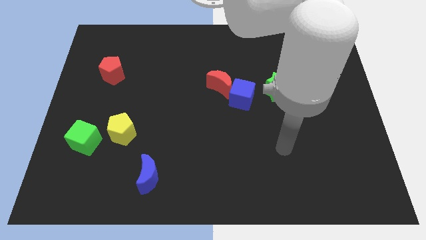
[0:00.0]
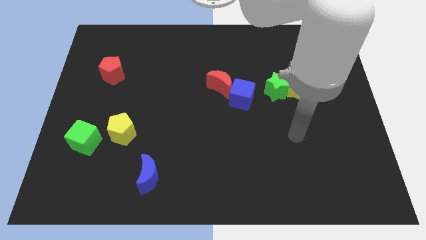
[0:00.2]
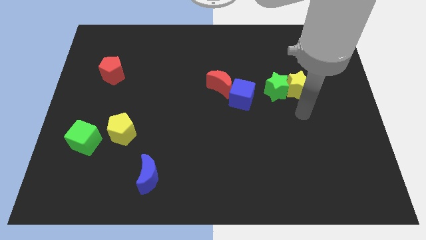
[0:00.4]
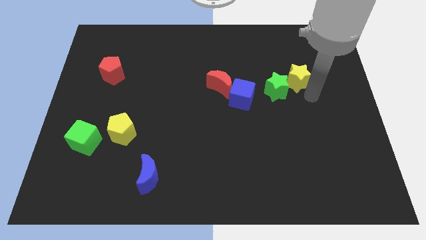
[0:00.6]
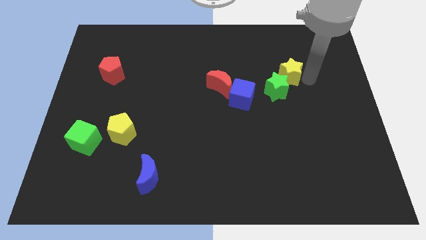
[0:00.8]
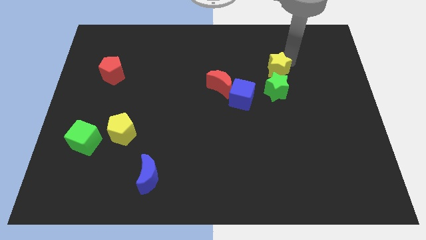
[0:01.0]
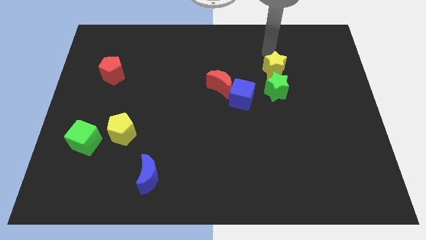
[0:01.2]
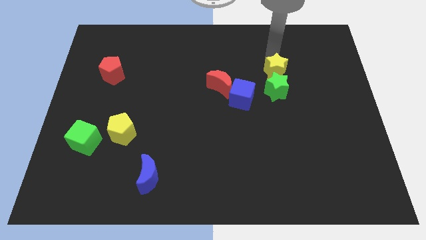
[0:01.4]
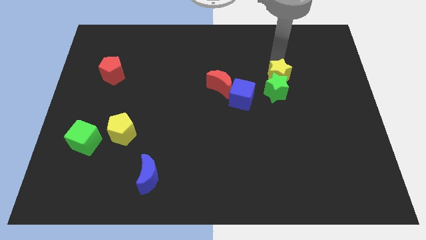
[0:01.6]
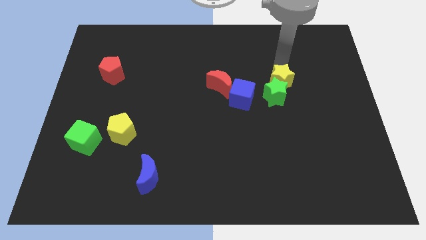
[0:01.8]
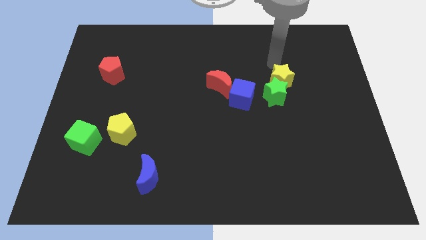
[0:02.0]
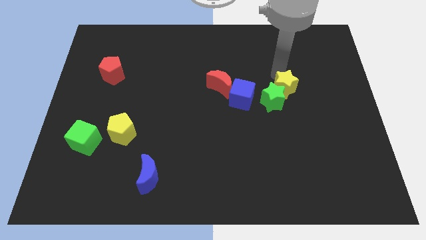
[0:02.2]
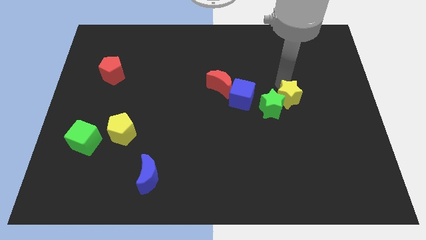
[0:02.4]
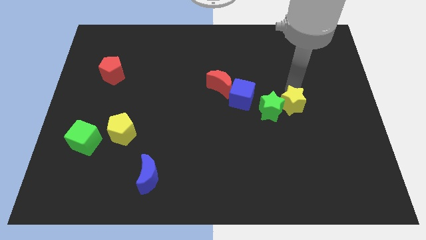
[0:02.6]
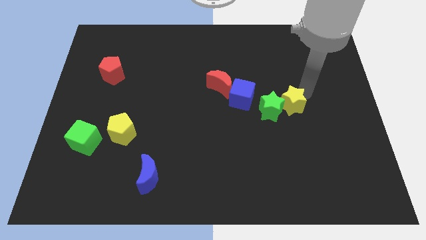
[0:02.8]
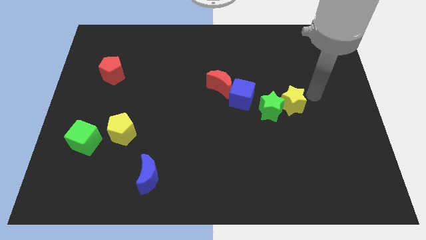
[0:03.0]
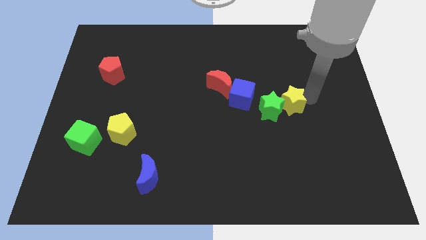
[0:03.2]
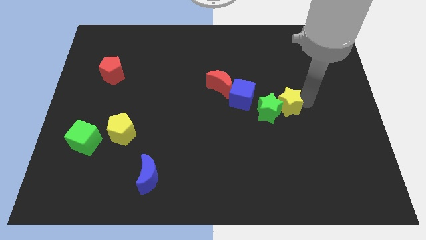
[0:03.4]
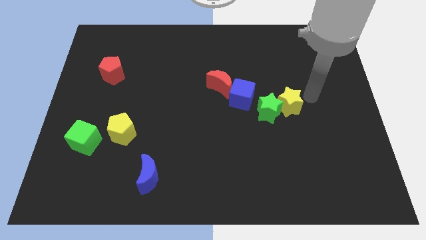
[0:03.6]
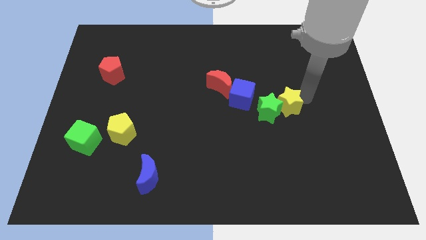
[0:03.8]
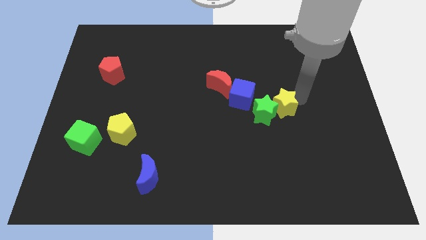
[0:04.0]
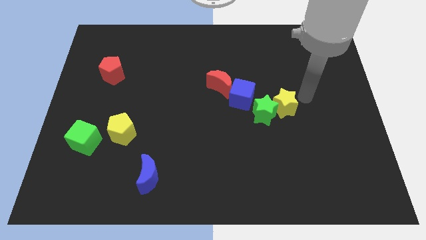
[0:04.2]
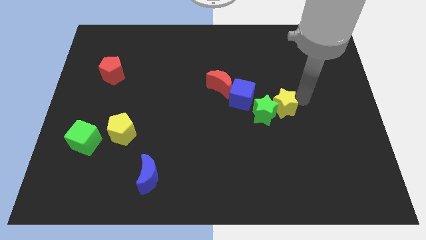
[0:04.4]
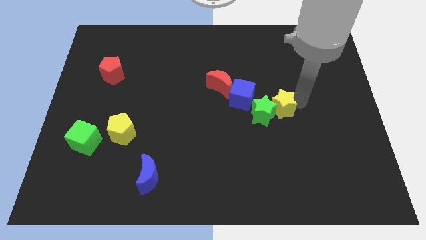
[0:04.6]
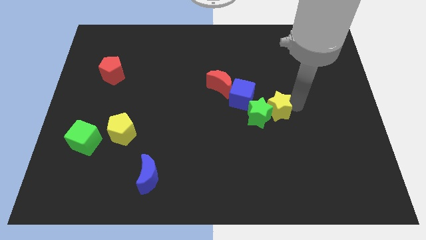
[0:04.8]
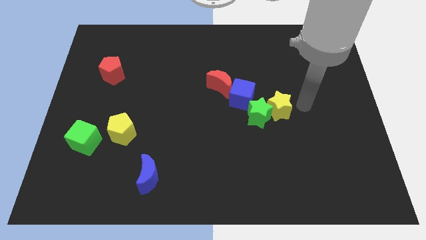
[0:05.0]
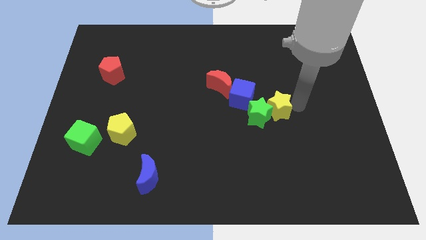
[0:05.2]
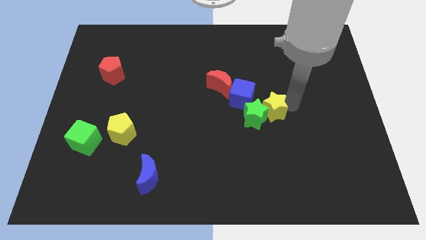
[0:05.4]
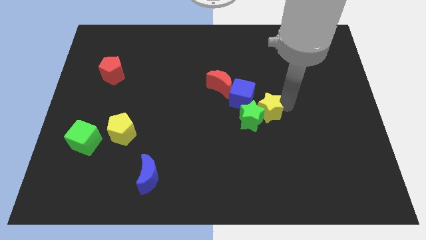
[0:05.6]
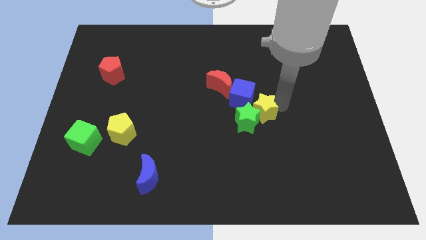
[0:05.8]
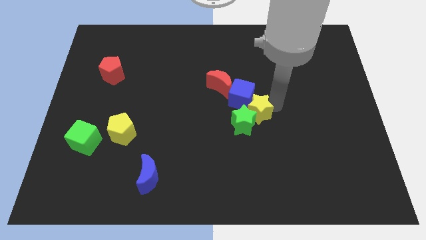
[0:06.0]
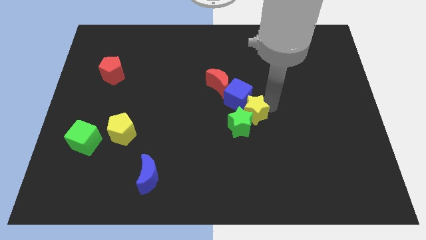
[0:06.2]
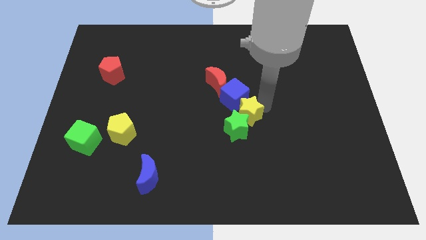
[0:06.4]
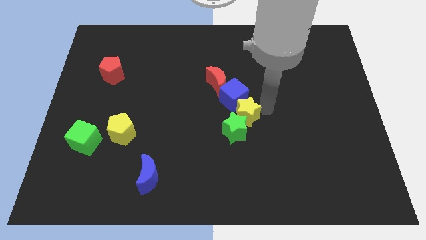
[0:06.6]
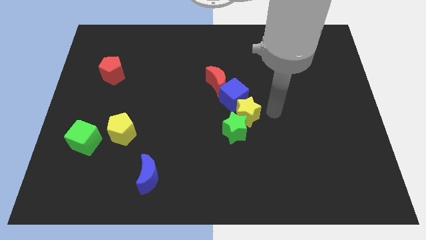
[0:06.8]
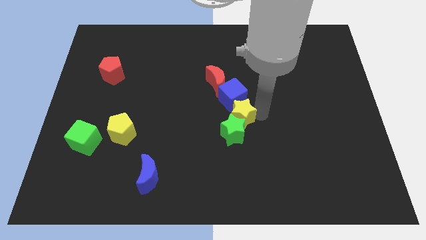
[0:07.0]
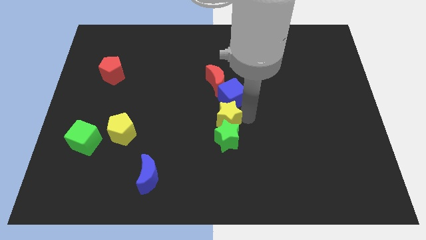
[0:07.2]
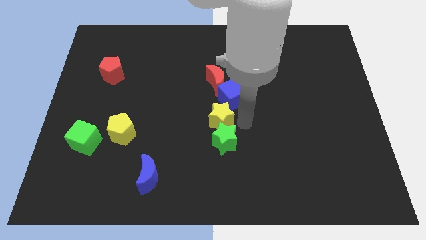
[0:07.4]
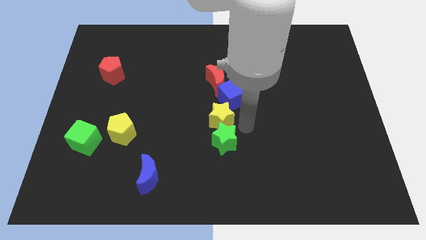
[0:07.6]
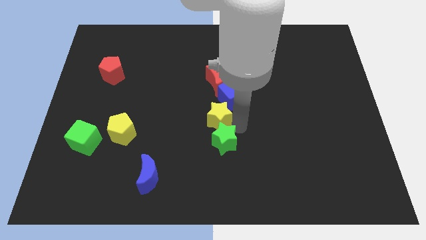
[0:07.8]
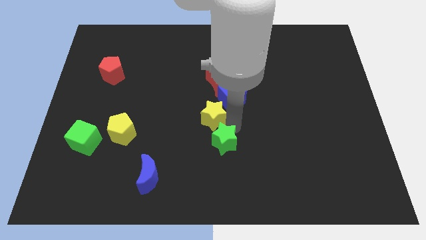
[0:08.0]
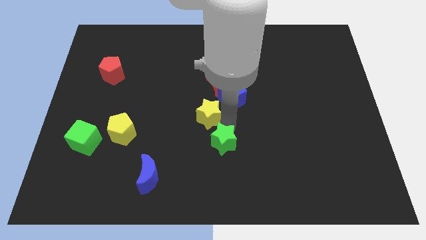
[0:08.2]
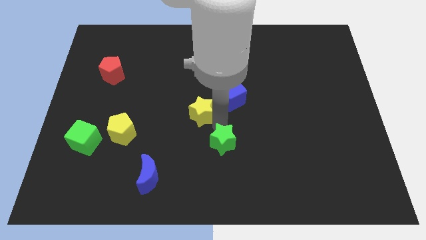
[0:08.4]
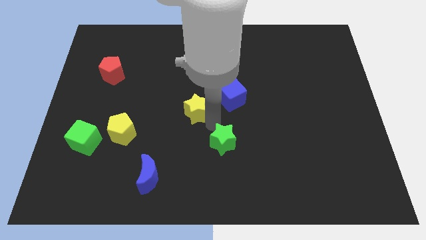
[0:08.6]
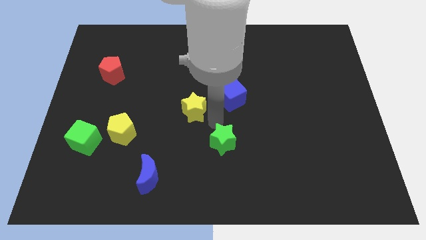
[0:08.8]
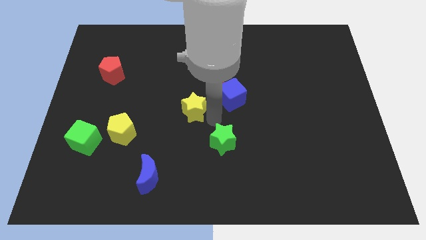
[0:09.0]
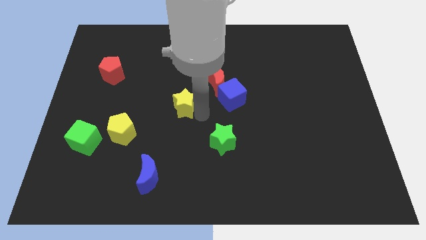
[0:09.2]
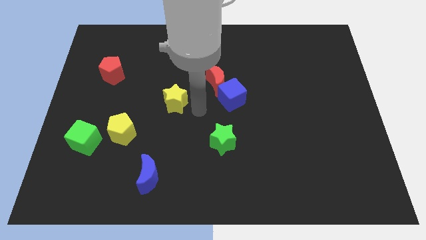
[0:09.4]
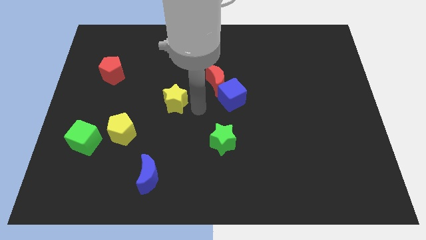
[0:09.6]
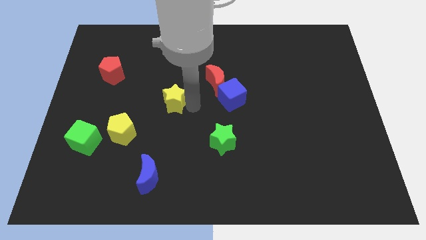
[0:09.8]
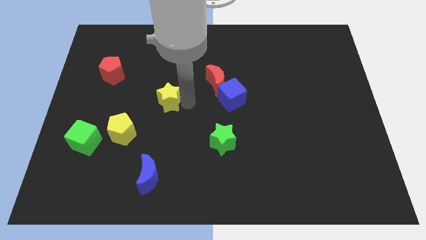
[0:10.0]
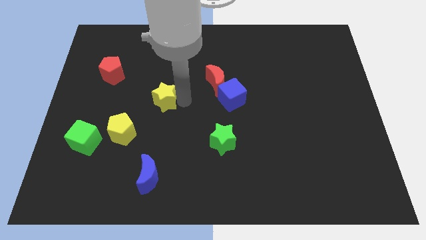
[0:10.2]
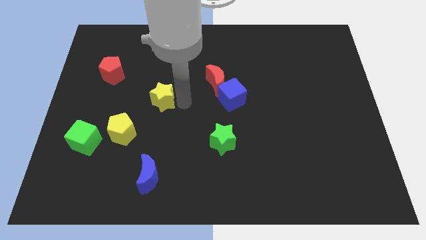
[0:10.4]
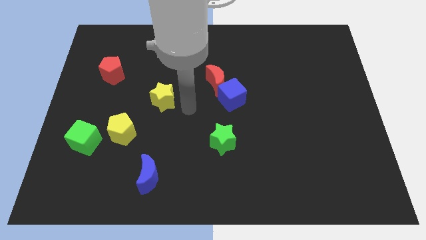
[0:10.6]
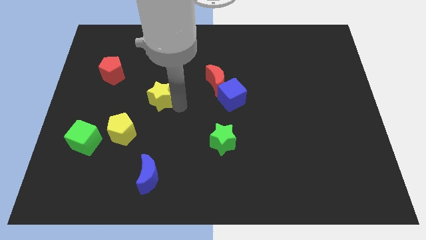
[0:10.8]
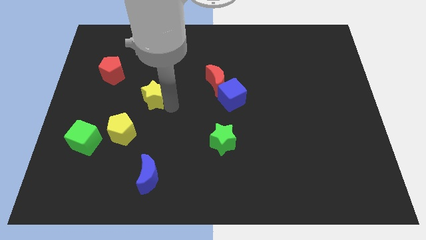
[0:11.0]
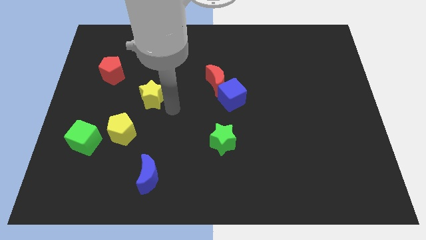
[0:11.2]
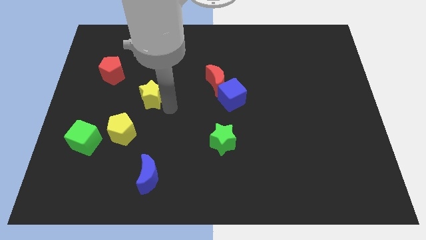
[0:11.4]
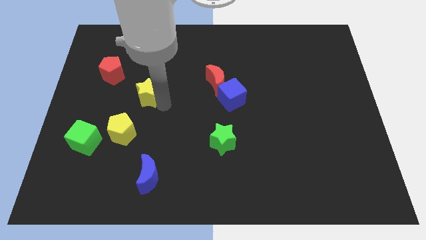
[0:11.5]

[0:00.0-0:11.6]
push the yellow star diagonally down and to the right of the red pentagon

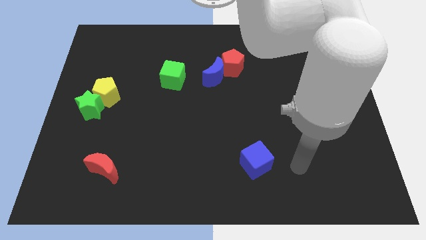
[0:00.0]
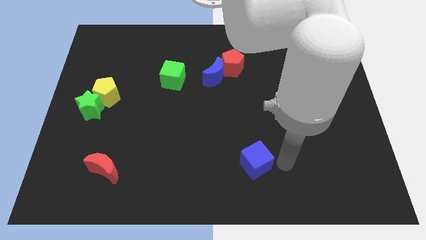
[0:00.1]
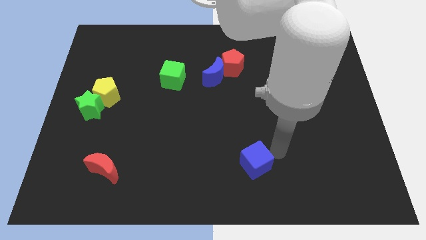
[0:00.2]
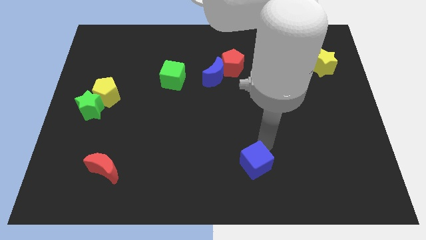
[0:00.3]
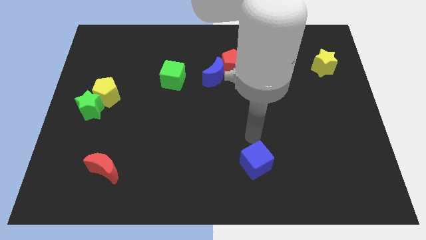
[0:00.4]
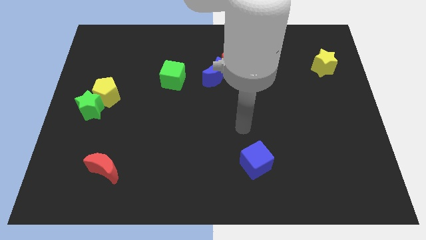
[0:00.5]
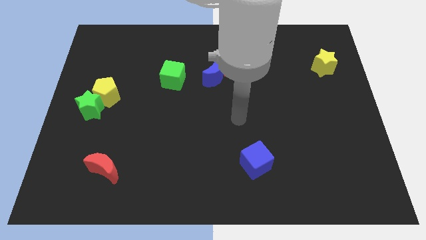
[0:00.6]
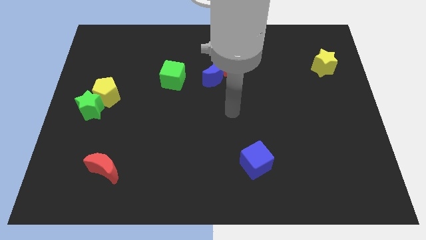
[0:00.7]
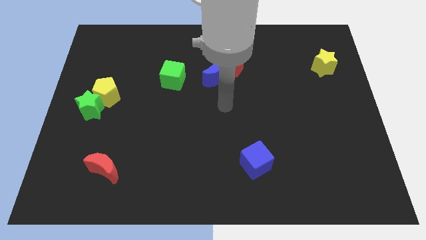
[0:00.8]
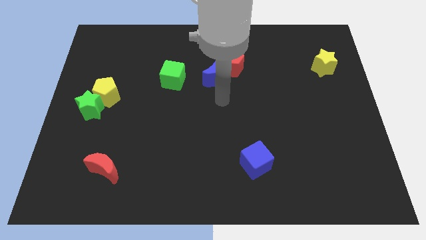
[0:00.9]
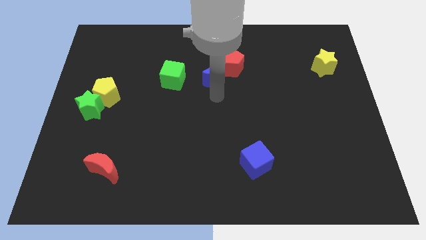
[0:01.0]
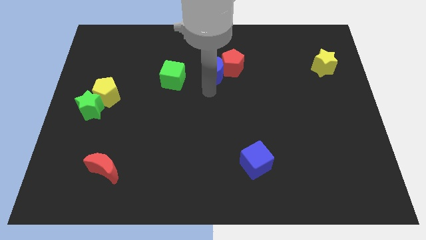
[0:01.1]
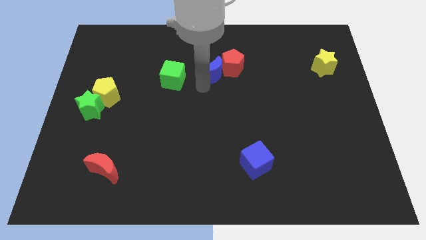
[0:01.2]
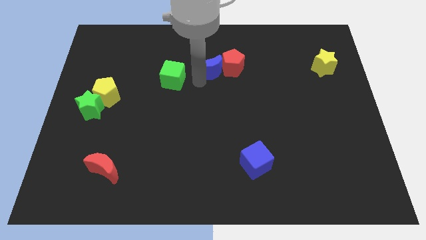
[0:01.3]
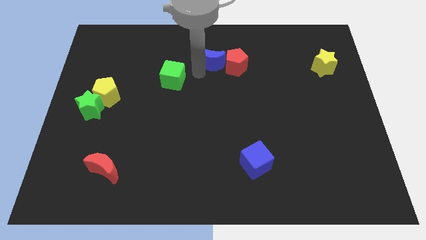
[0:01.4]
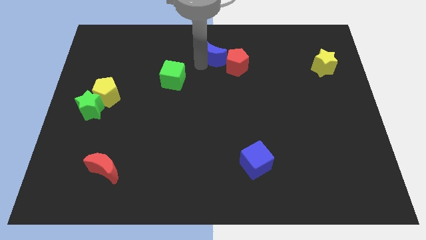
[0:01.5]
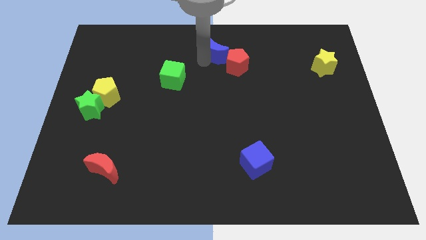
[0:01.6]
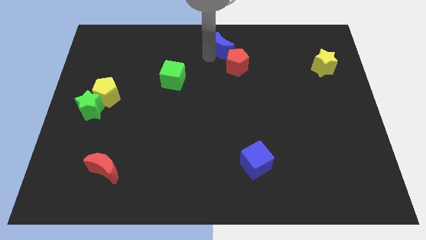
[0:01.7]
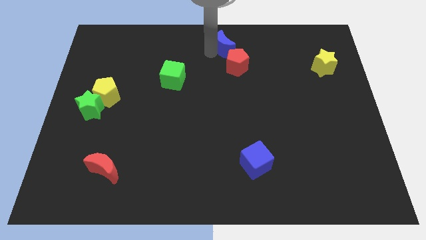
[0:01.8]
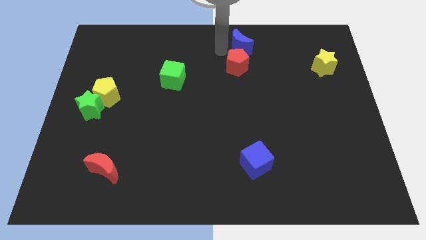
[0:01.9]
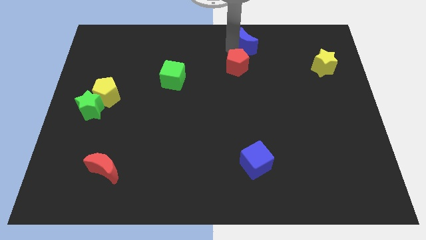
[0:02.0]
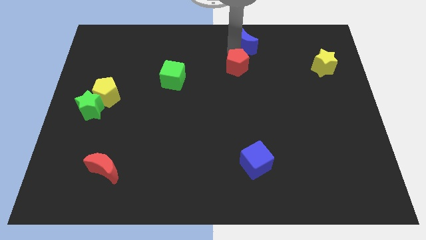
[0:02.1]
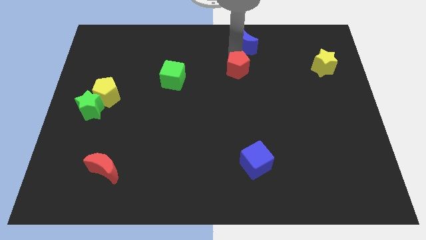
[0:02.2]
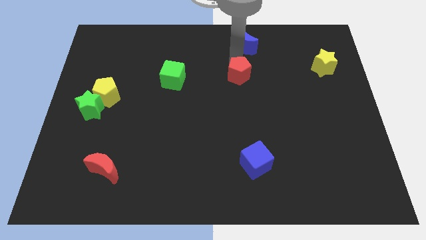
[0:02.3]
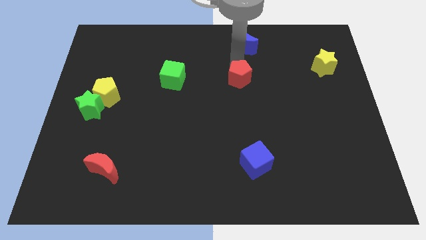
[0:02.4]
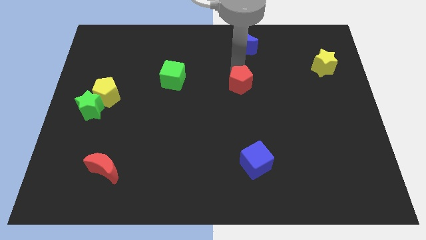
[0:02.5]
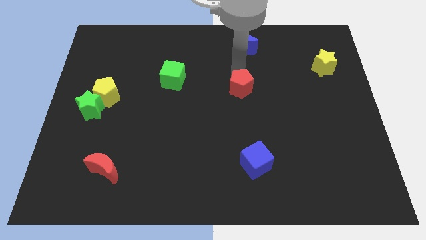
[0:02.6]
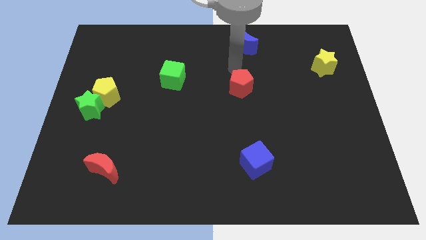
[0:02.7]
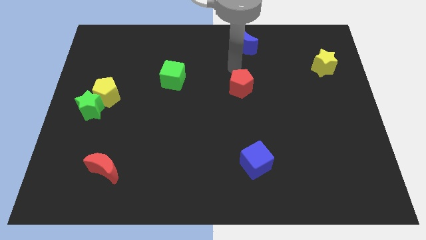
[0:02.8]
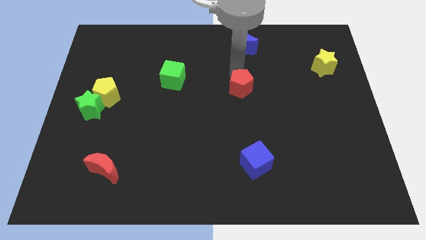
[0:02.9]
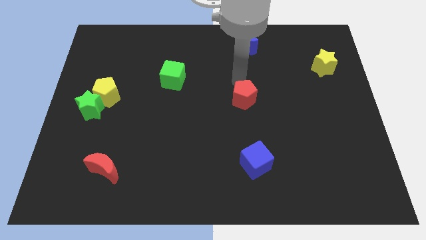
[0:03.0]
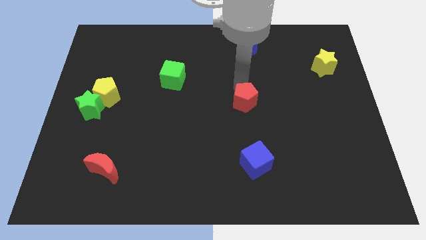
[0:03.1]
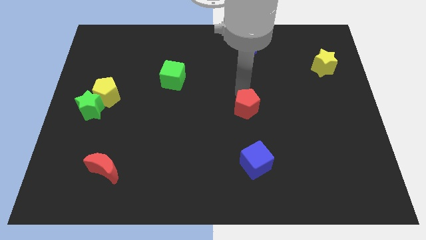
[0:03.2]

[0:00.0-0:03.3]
put the red pentagon above the blue cube
